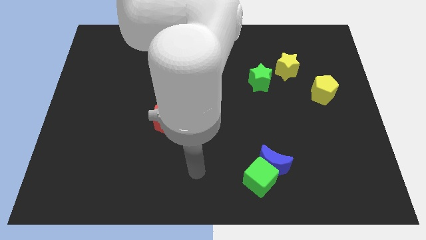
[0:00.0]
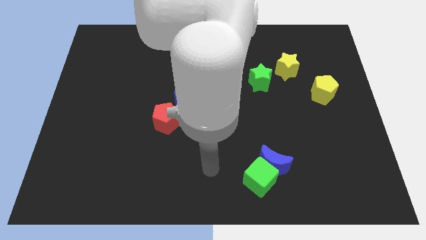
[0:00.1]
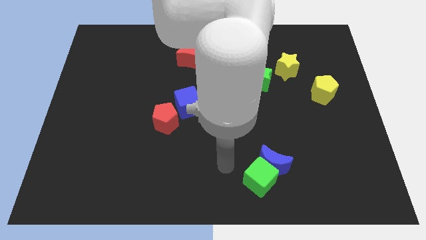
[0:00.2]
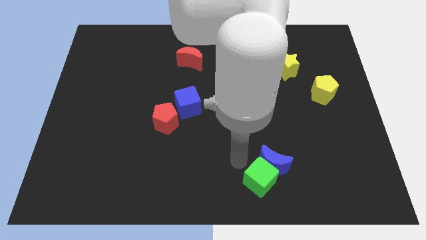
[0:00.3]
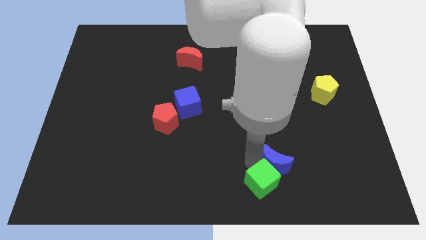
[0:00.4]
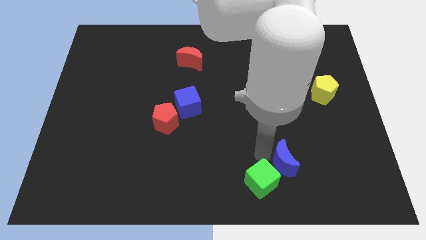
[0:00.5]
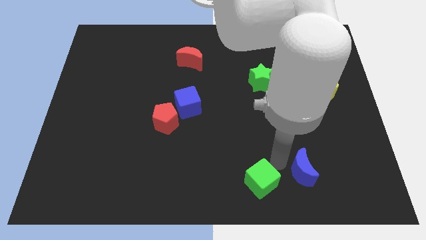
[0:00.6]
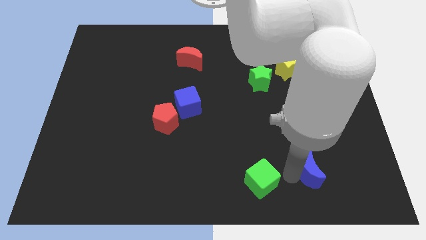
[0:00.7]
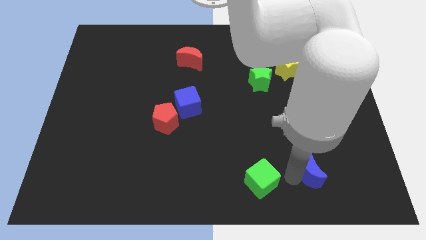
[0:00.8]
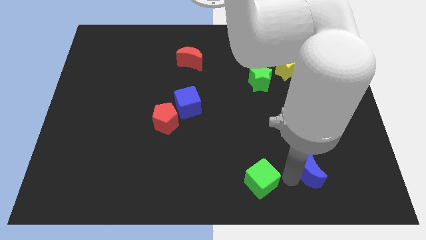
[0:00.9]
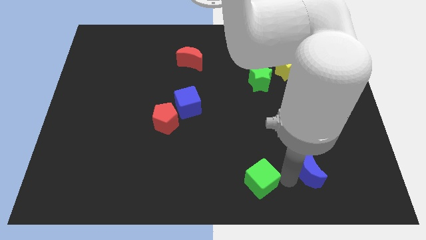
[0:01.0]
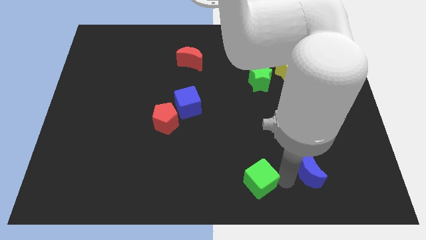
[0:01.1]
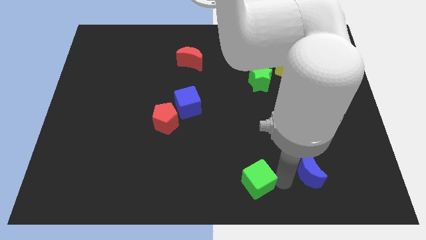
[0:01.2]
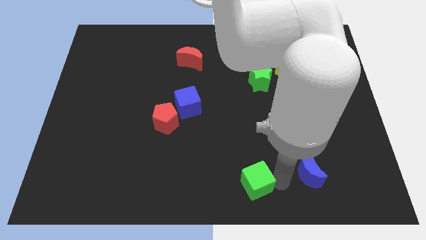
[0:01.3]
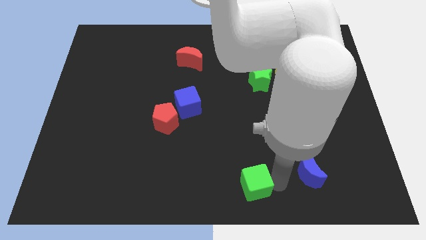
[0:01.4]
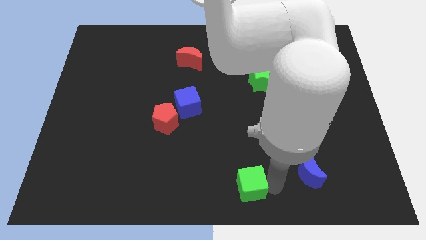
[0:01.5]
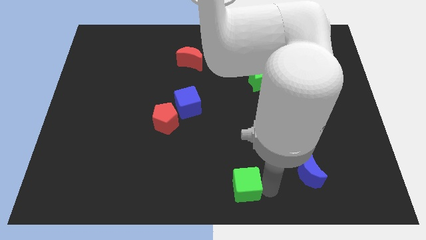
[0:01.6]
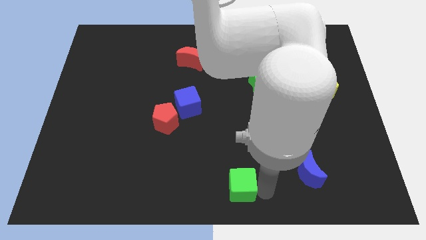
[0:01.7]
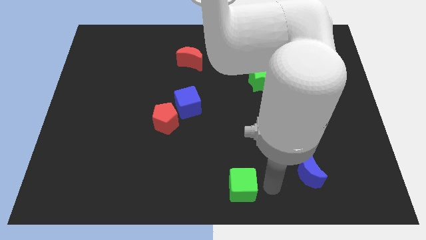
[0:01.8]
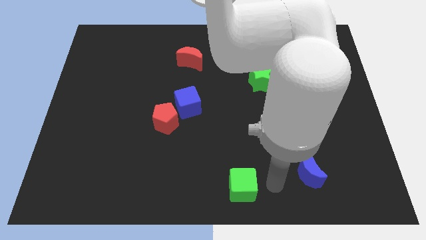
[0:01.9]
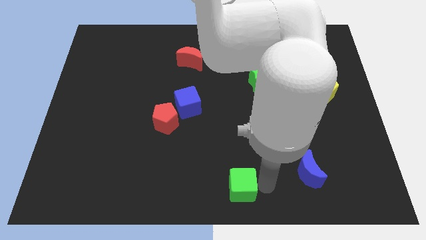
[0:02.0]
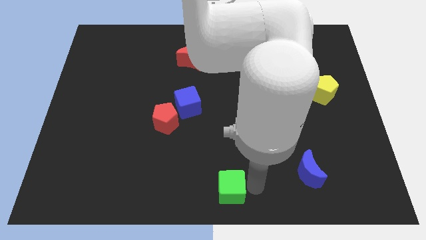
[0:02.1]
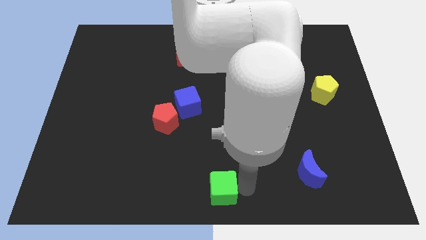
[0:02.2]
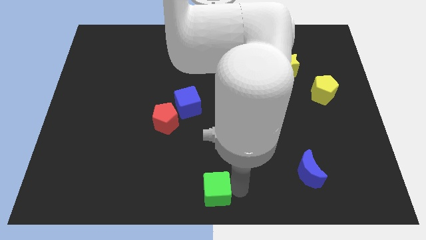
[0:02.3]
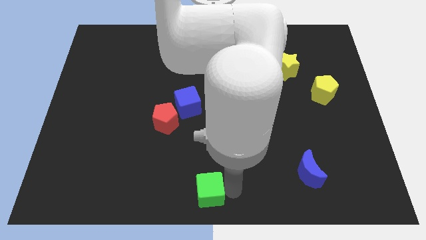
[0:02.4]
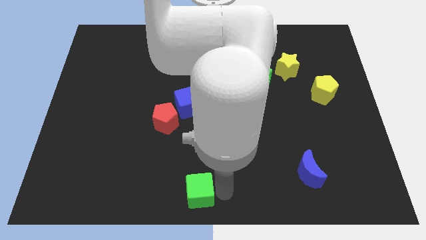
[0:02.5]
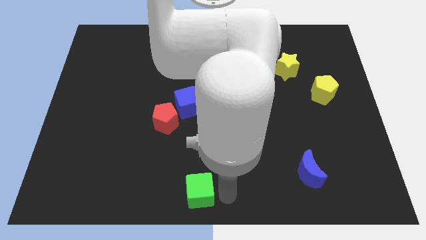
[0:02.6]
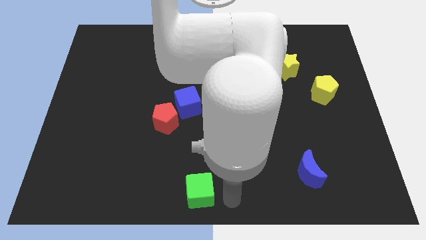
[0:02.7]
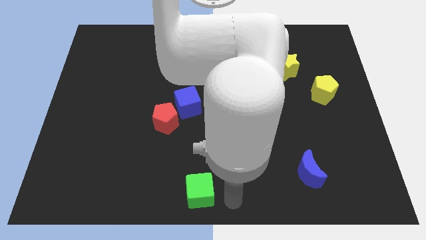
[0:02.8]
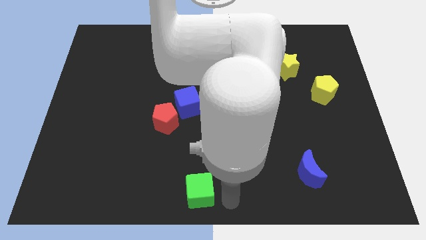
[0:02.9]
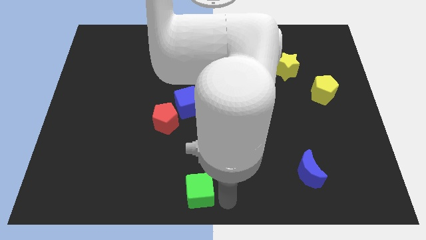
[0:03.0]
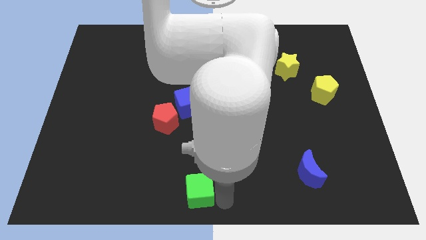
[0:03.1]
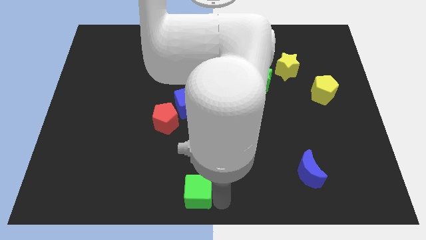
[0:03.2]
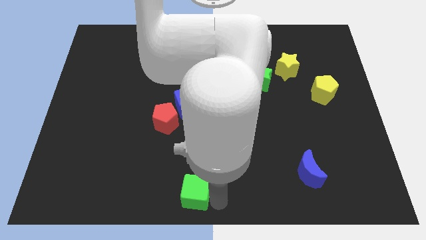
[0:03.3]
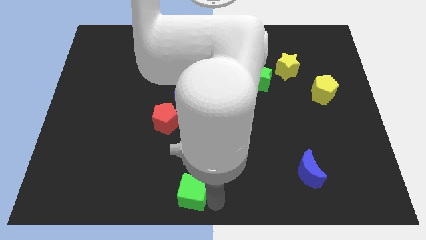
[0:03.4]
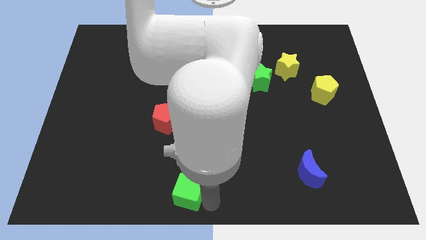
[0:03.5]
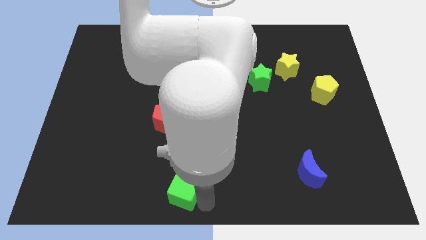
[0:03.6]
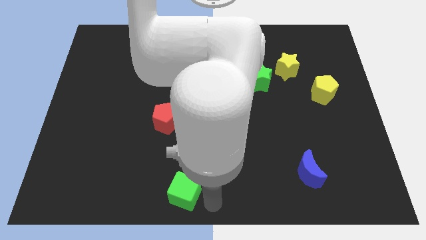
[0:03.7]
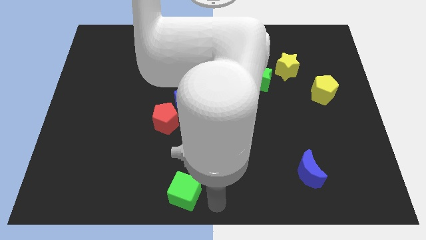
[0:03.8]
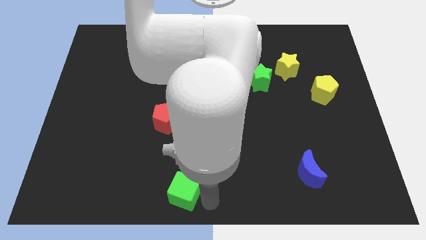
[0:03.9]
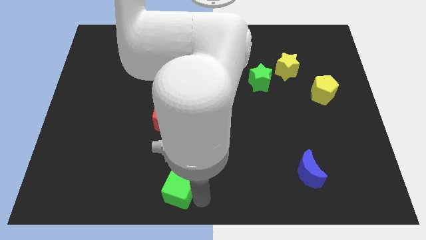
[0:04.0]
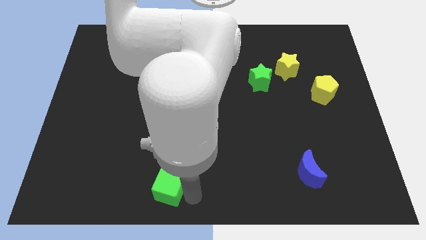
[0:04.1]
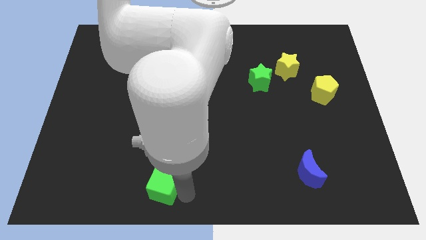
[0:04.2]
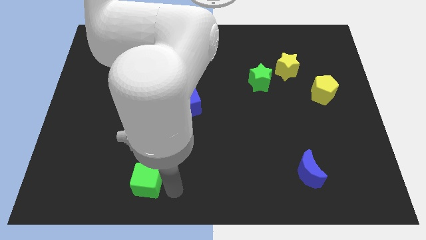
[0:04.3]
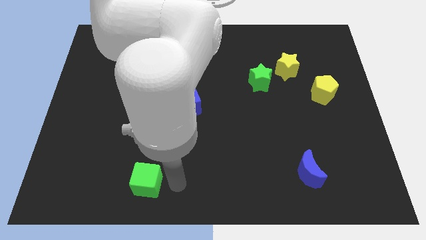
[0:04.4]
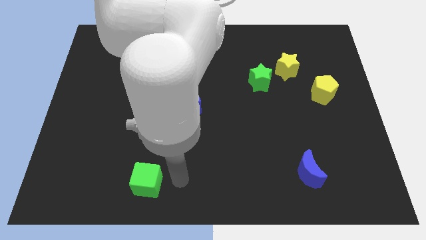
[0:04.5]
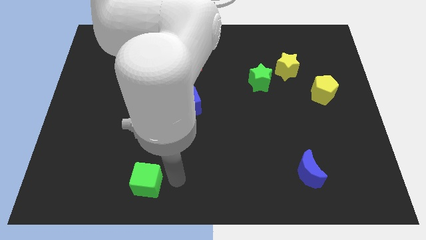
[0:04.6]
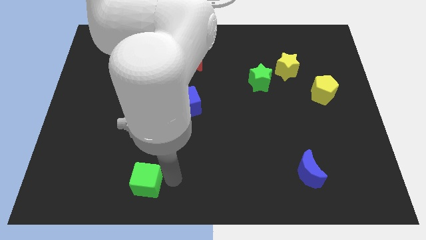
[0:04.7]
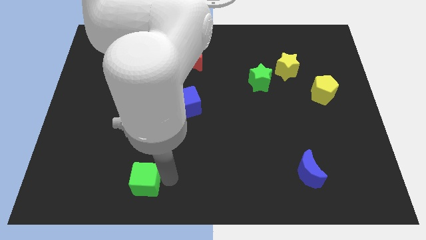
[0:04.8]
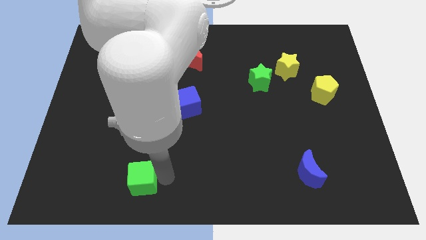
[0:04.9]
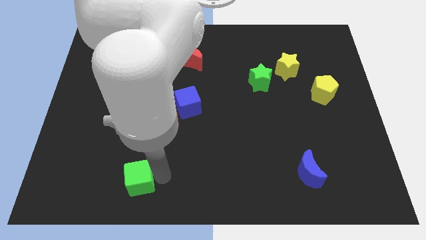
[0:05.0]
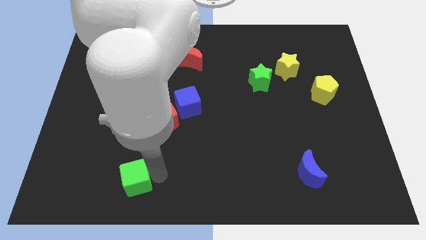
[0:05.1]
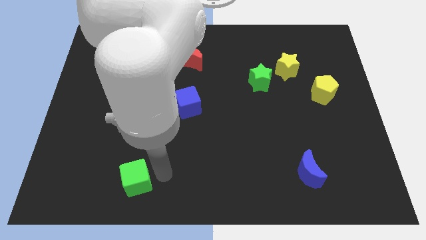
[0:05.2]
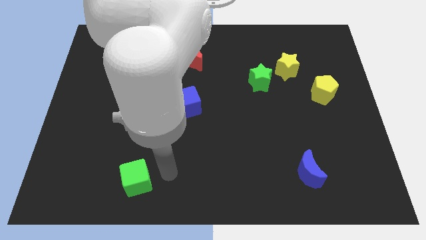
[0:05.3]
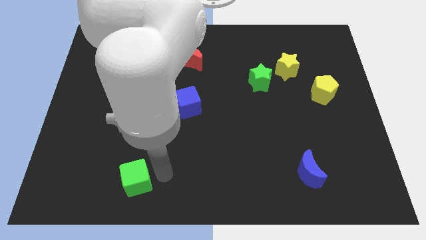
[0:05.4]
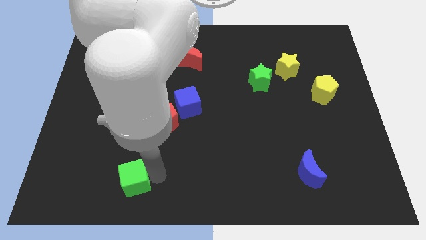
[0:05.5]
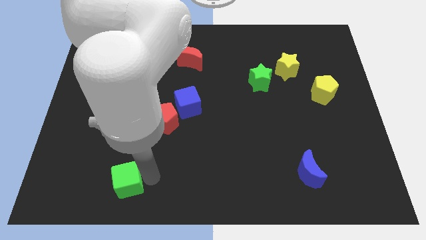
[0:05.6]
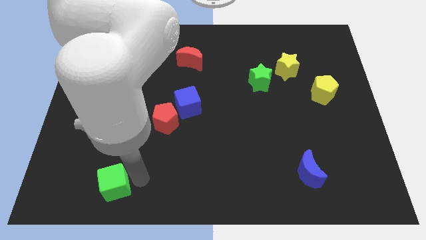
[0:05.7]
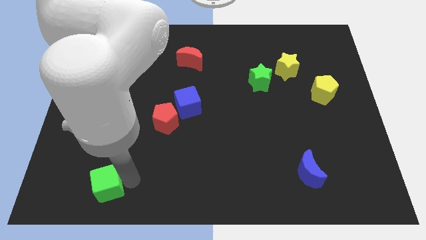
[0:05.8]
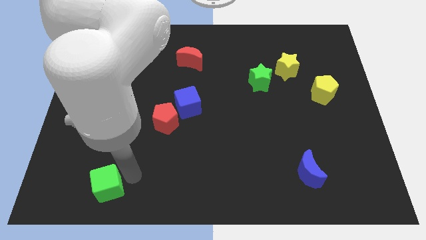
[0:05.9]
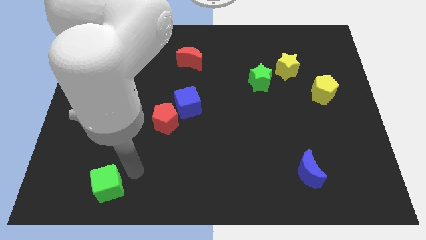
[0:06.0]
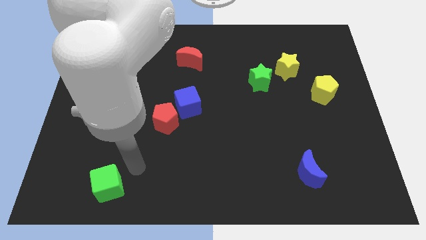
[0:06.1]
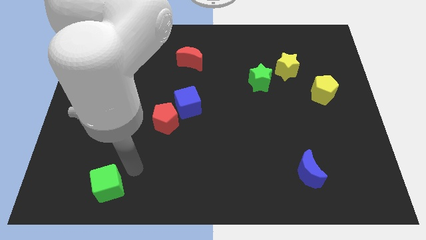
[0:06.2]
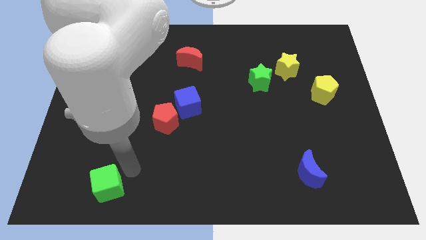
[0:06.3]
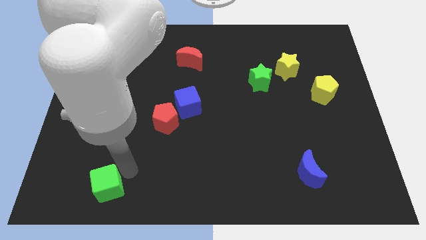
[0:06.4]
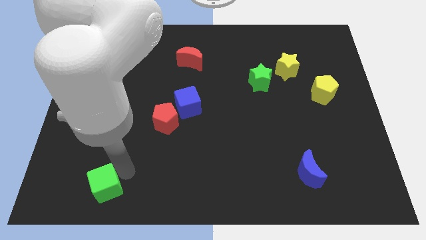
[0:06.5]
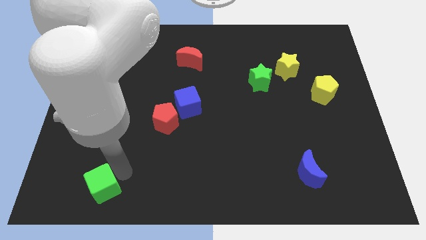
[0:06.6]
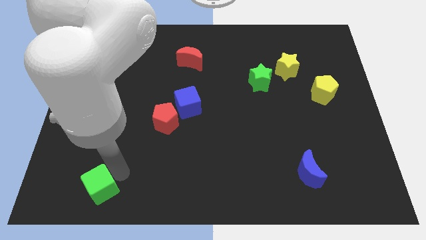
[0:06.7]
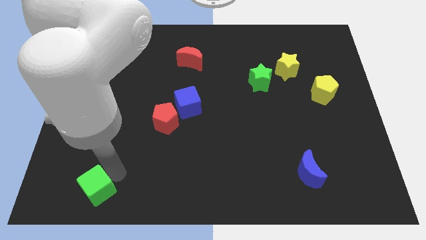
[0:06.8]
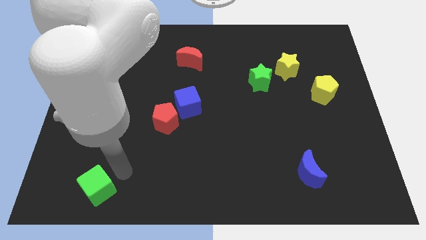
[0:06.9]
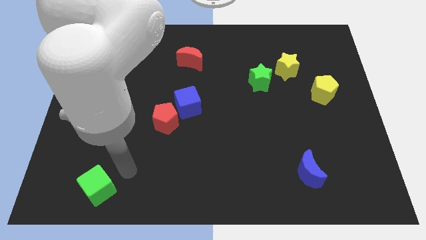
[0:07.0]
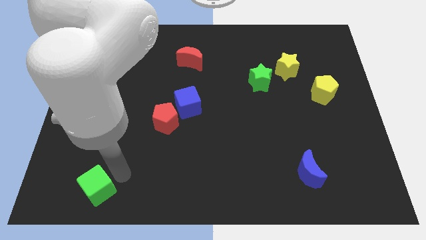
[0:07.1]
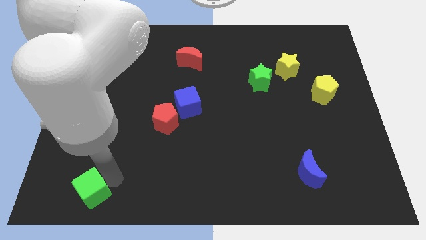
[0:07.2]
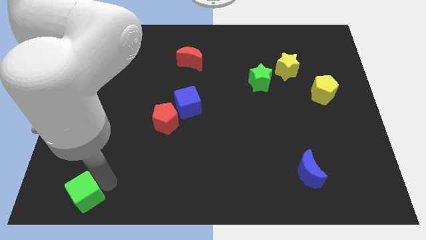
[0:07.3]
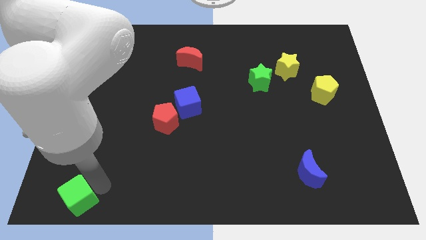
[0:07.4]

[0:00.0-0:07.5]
push the green cube to the bottom left of the board
